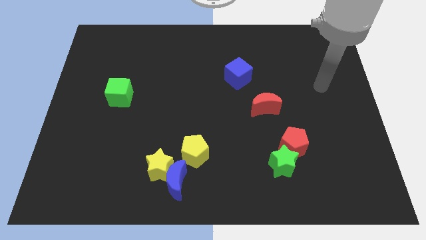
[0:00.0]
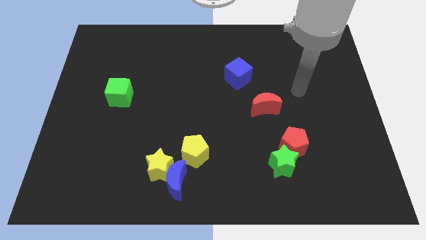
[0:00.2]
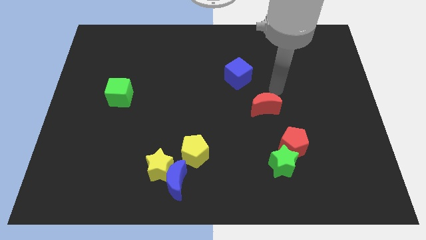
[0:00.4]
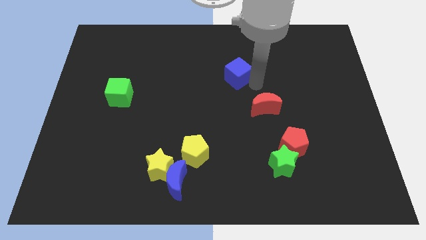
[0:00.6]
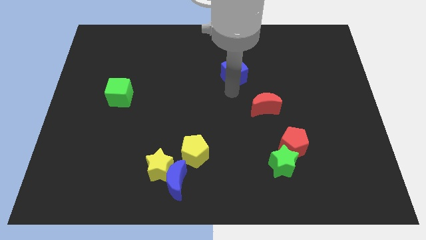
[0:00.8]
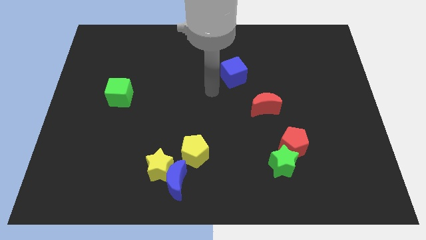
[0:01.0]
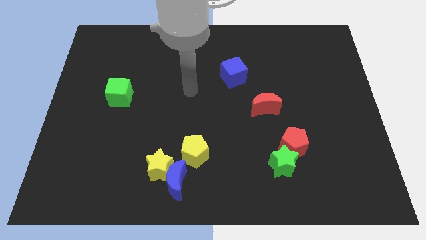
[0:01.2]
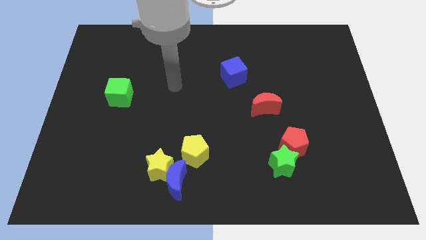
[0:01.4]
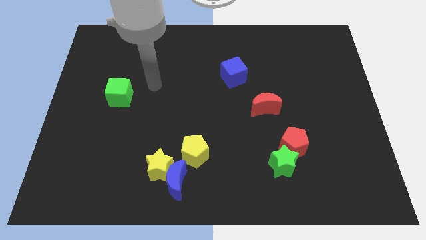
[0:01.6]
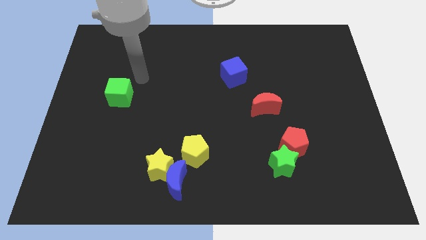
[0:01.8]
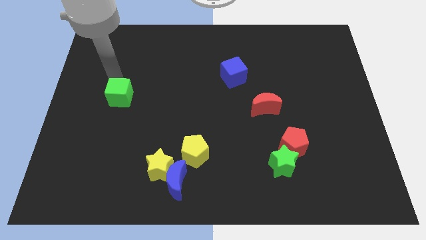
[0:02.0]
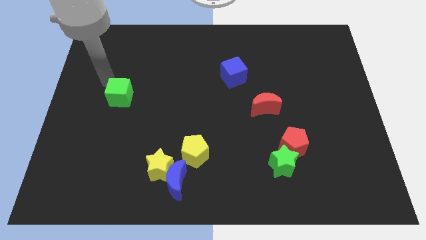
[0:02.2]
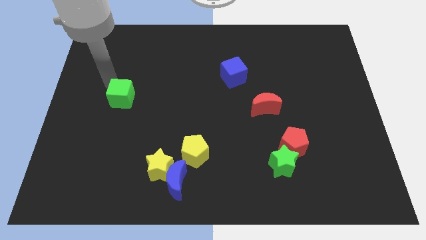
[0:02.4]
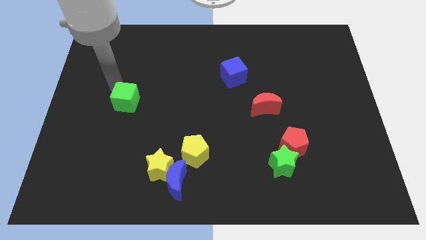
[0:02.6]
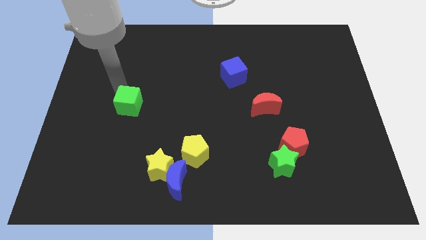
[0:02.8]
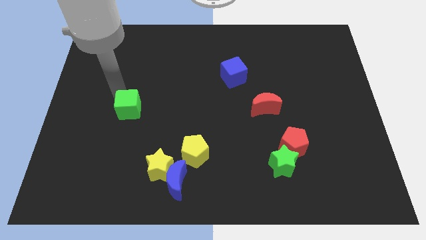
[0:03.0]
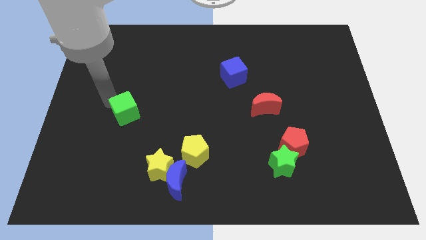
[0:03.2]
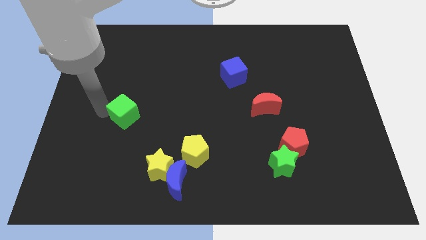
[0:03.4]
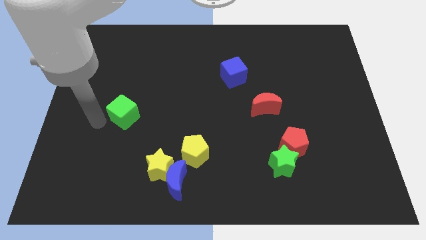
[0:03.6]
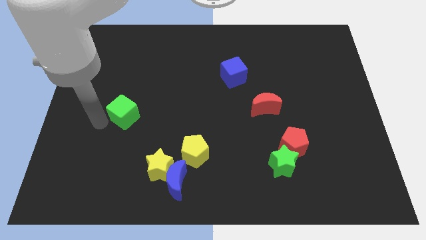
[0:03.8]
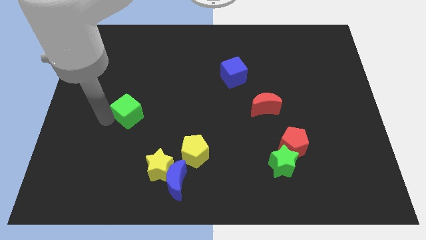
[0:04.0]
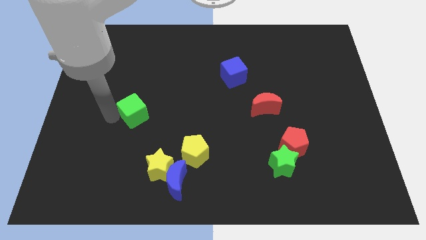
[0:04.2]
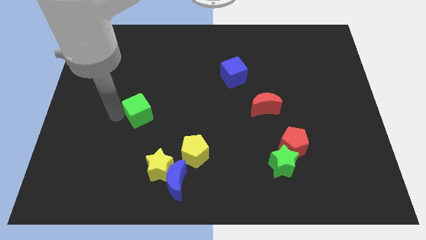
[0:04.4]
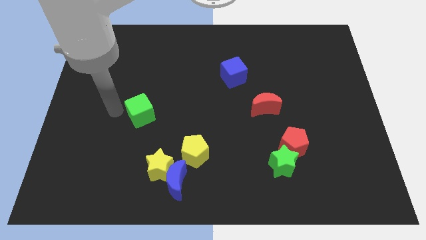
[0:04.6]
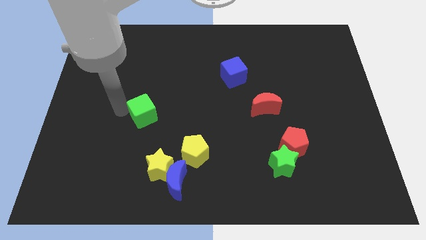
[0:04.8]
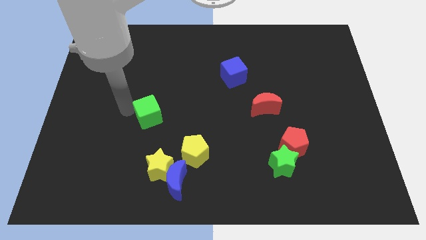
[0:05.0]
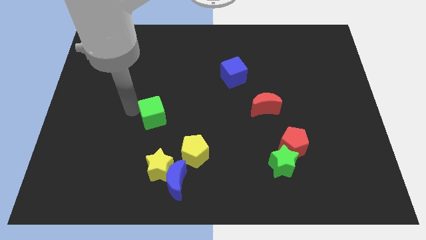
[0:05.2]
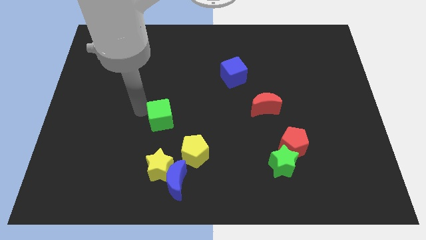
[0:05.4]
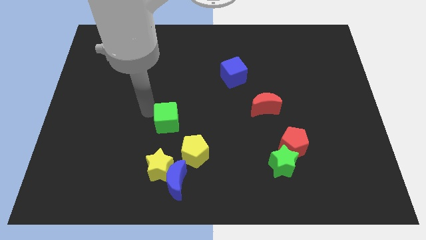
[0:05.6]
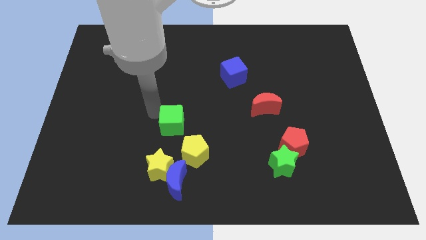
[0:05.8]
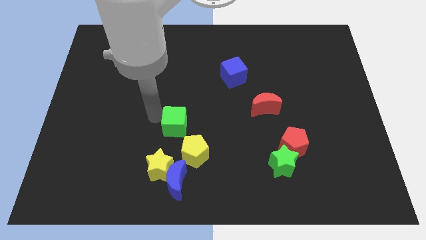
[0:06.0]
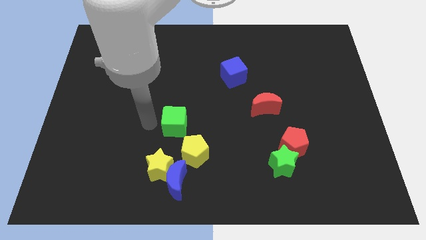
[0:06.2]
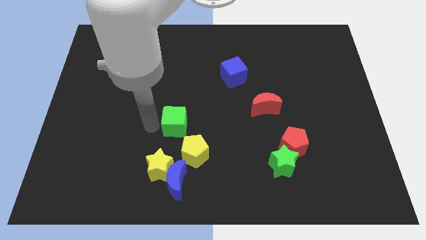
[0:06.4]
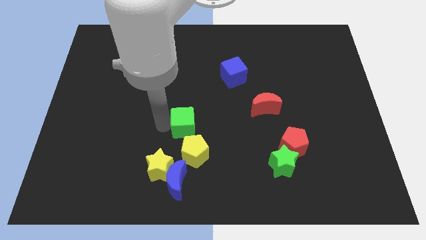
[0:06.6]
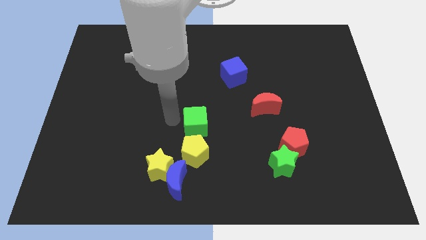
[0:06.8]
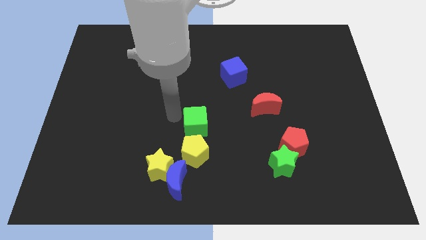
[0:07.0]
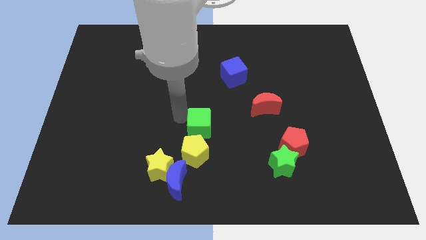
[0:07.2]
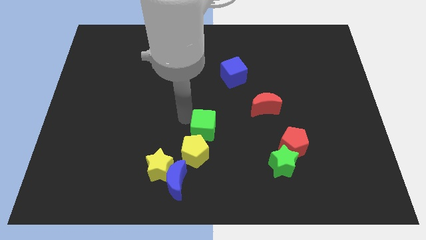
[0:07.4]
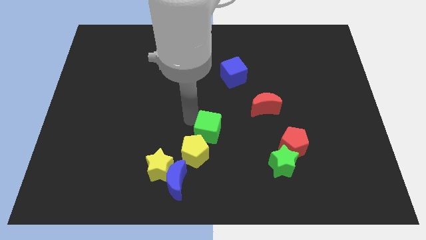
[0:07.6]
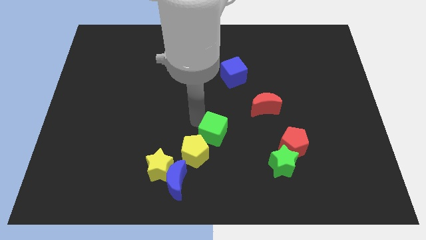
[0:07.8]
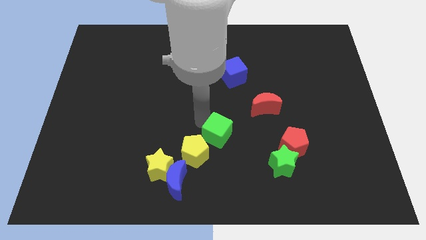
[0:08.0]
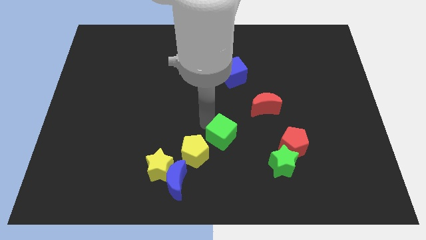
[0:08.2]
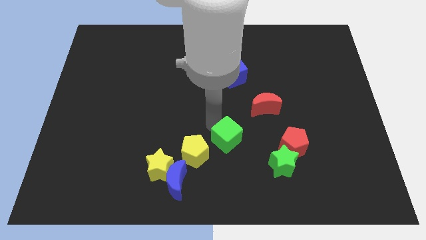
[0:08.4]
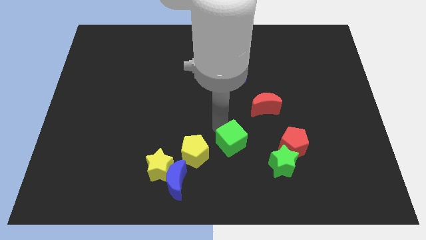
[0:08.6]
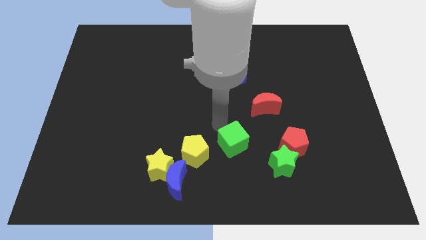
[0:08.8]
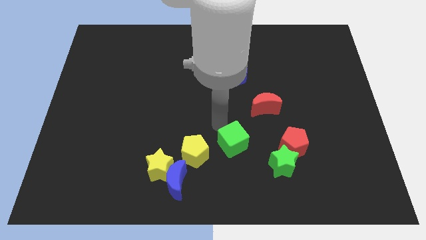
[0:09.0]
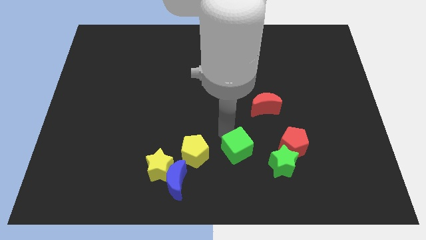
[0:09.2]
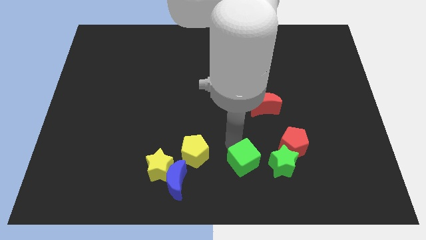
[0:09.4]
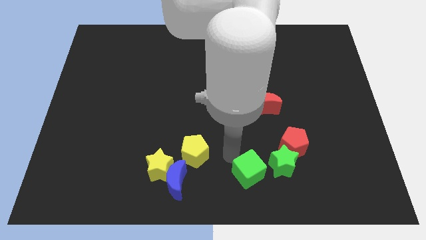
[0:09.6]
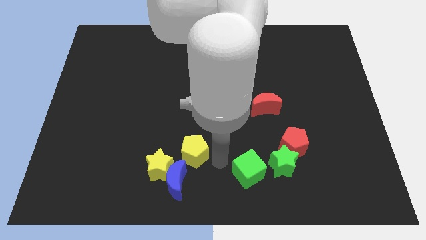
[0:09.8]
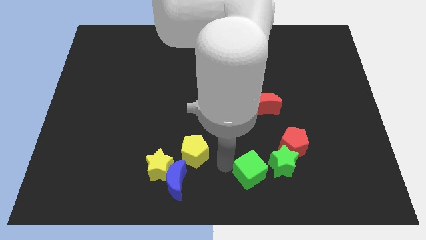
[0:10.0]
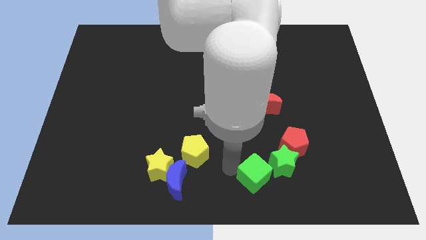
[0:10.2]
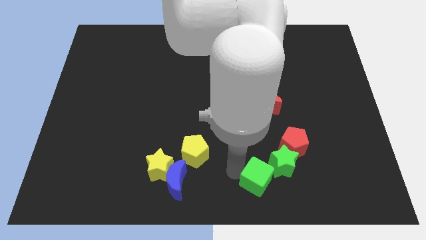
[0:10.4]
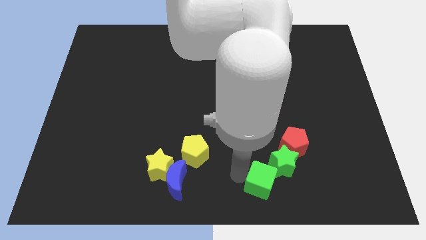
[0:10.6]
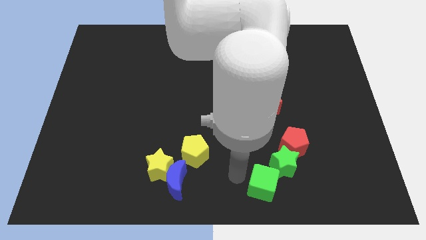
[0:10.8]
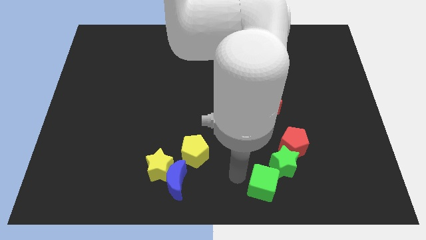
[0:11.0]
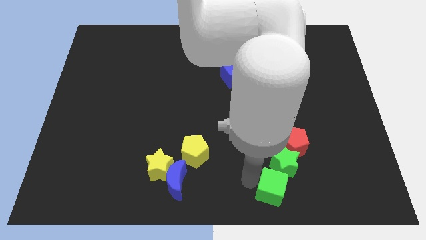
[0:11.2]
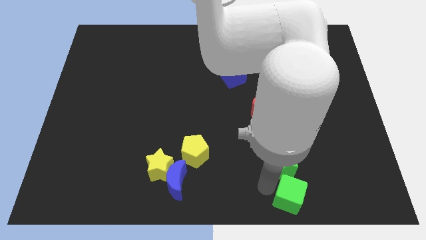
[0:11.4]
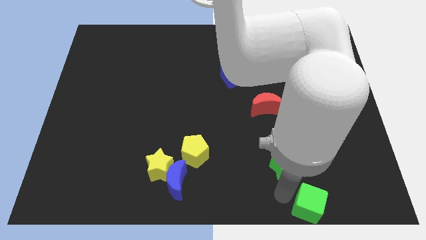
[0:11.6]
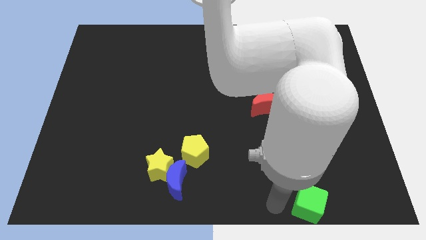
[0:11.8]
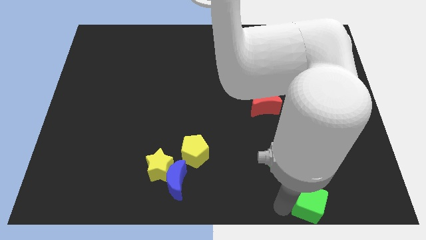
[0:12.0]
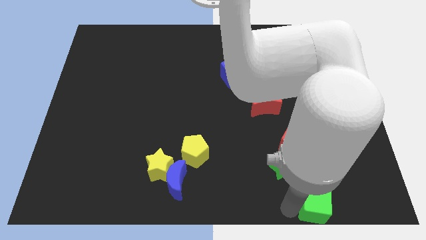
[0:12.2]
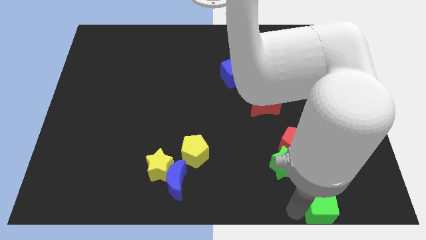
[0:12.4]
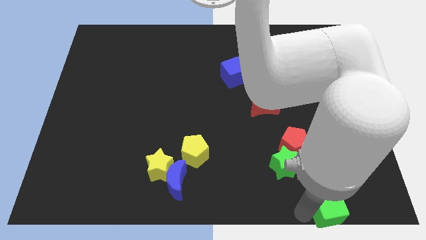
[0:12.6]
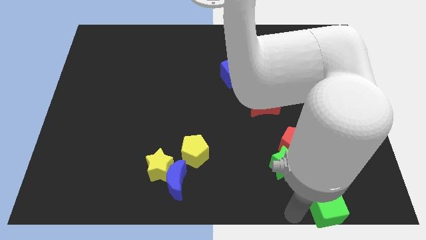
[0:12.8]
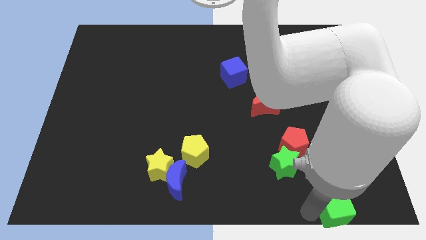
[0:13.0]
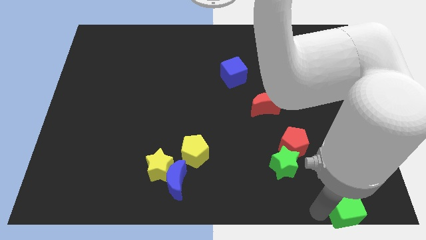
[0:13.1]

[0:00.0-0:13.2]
move the green cube to the bottom right of the board
